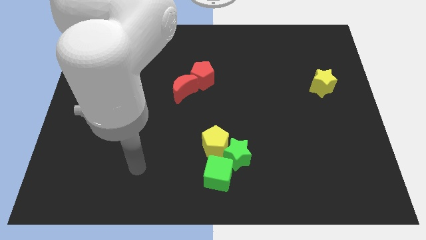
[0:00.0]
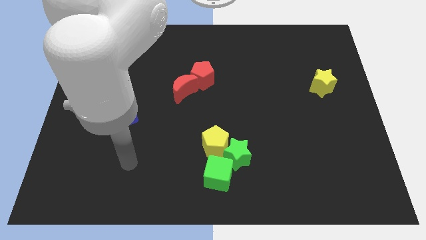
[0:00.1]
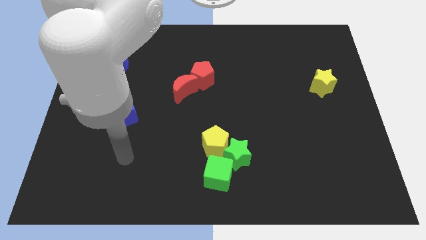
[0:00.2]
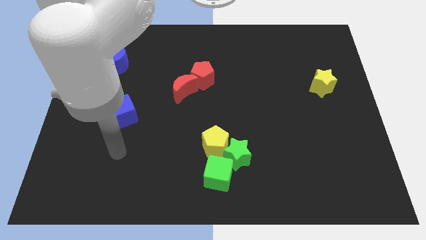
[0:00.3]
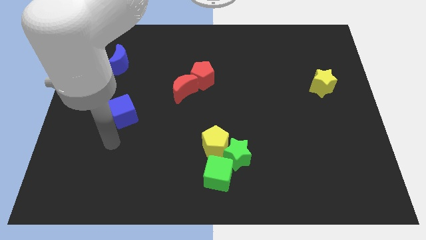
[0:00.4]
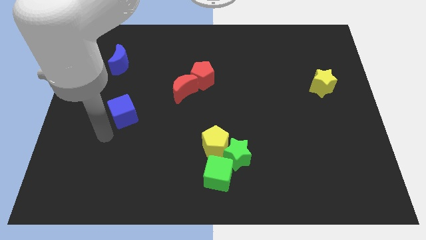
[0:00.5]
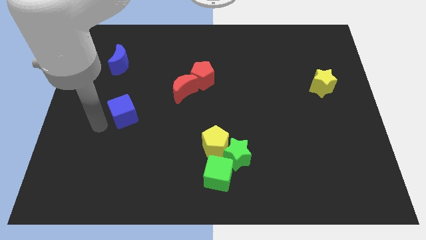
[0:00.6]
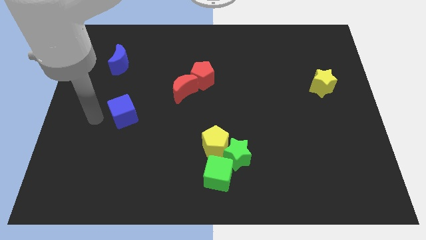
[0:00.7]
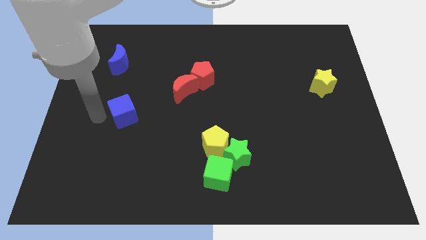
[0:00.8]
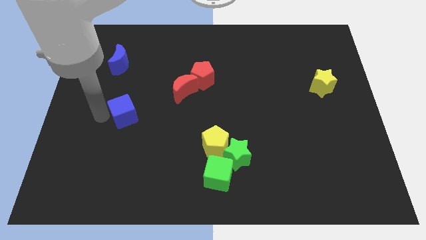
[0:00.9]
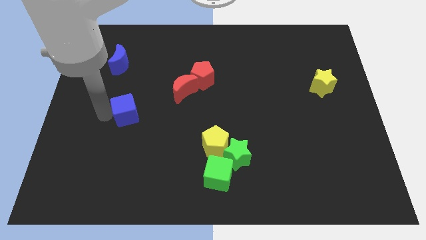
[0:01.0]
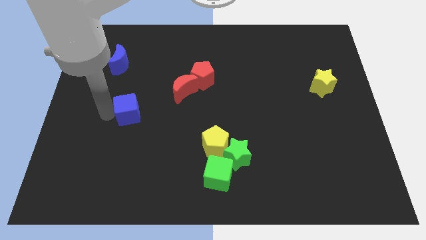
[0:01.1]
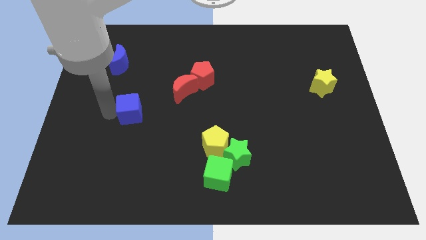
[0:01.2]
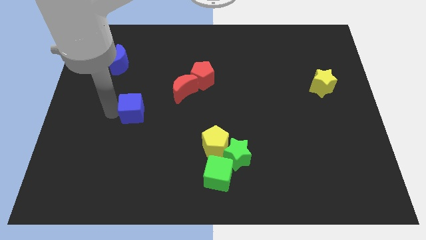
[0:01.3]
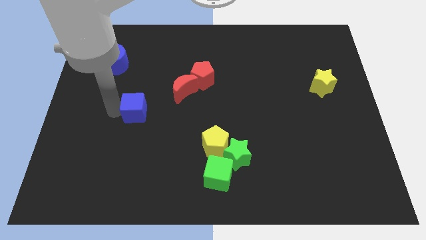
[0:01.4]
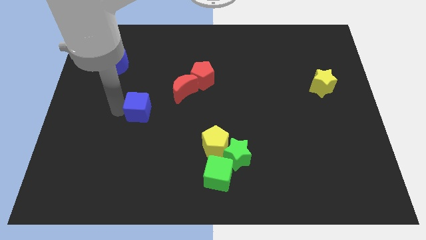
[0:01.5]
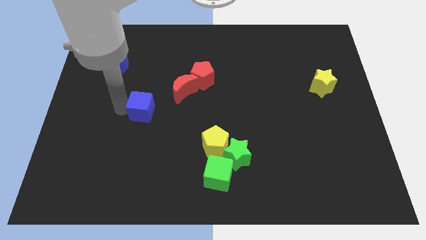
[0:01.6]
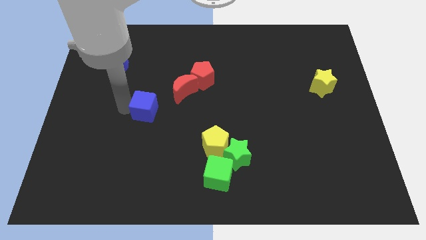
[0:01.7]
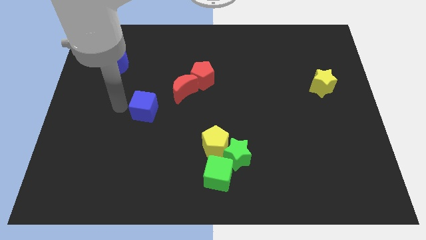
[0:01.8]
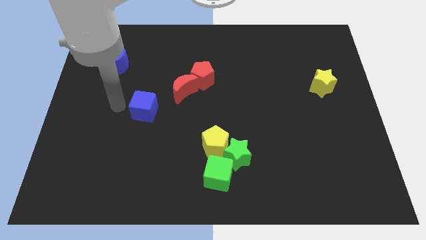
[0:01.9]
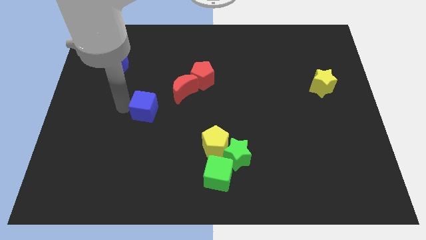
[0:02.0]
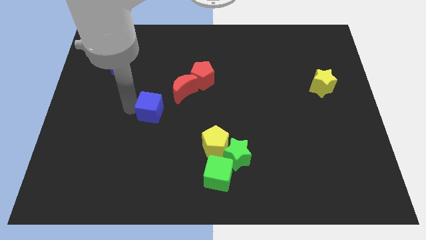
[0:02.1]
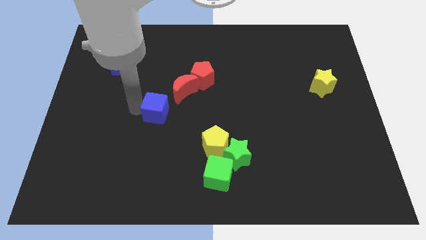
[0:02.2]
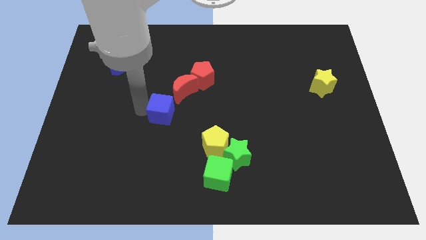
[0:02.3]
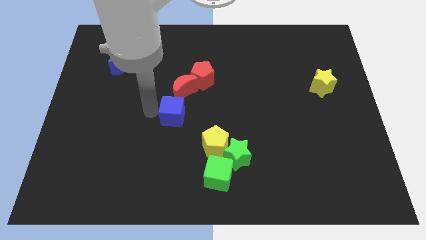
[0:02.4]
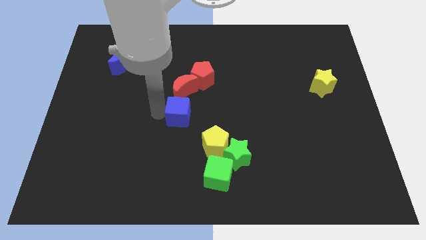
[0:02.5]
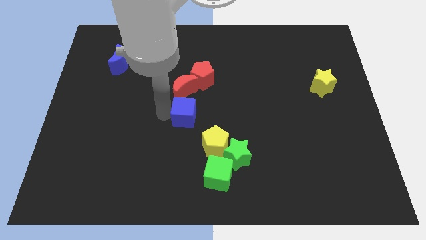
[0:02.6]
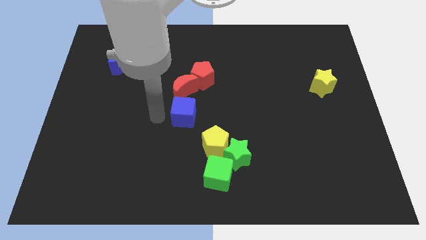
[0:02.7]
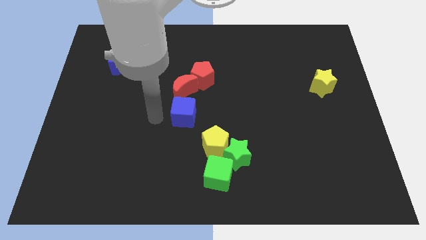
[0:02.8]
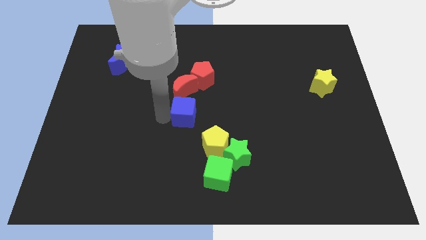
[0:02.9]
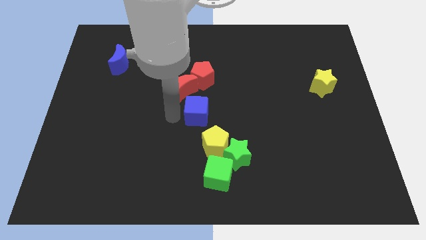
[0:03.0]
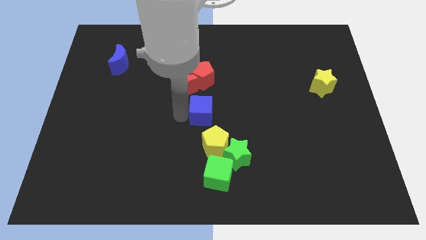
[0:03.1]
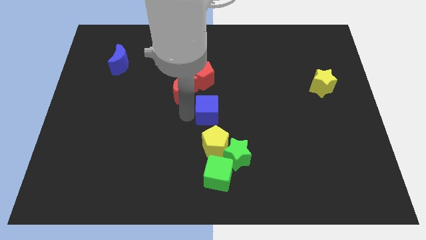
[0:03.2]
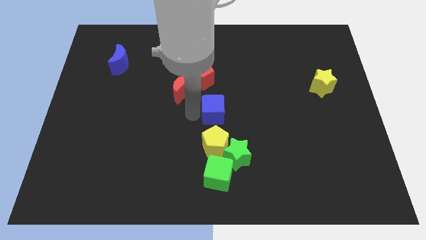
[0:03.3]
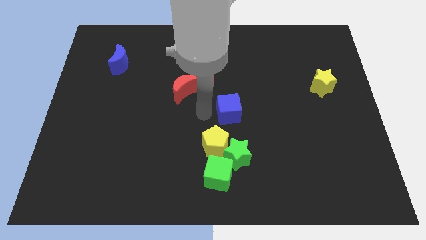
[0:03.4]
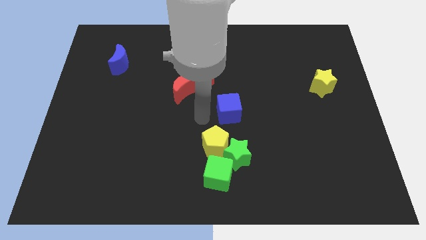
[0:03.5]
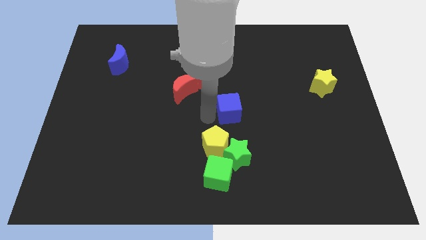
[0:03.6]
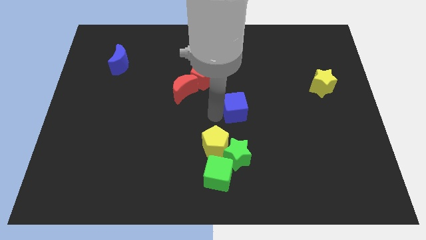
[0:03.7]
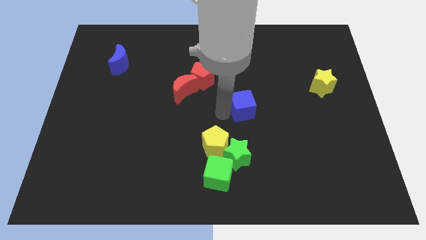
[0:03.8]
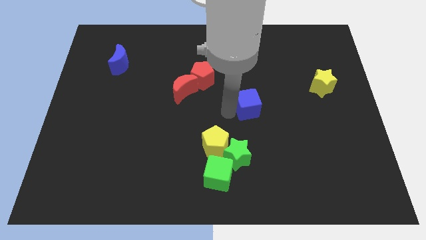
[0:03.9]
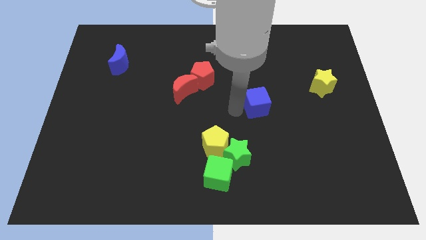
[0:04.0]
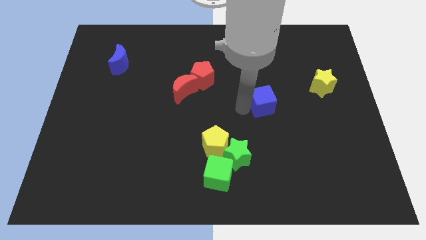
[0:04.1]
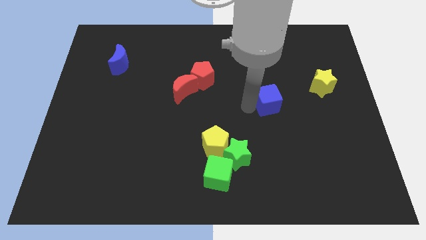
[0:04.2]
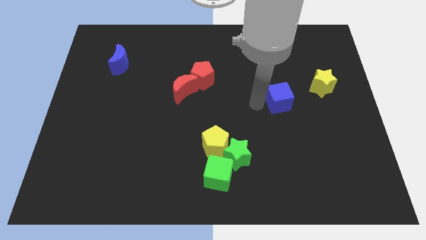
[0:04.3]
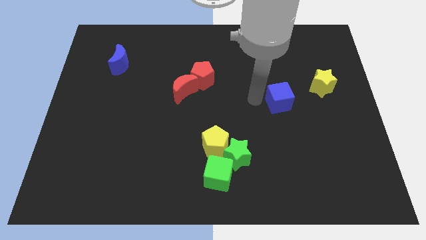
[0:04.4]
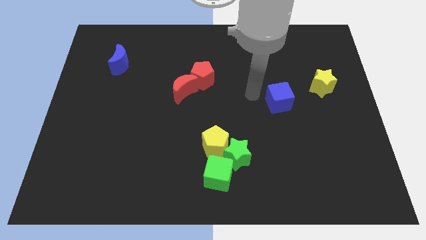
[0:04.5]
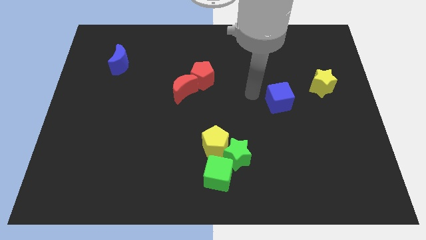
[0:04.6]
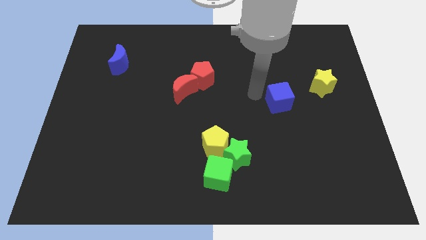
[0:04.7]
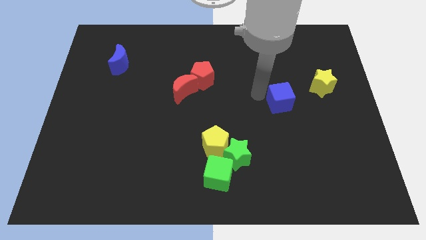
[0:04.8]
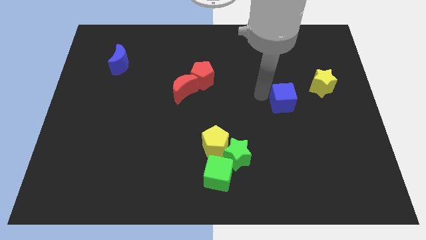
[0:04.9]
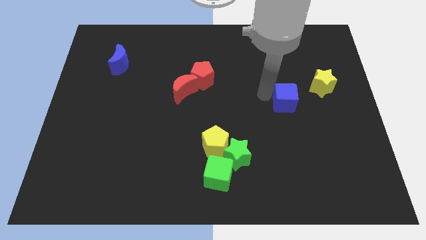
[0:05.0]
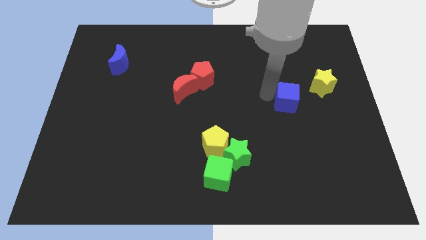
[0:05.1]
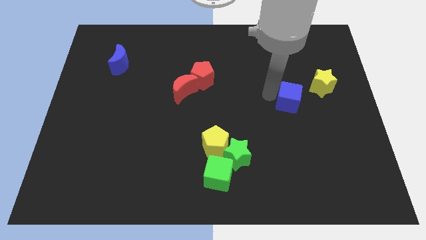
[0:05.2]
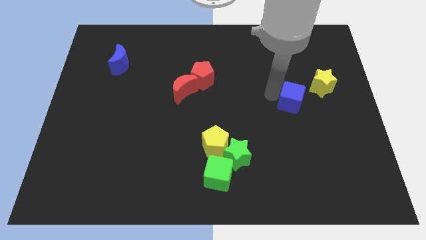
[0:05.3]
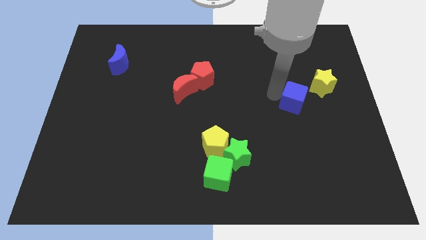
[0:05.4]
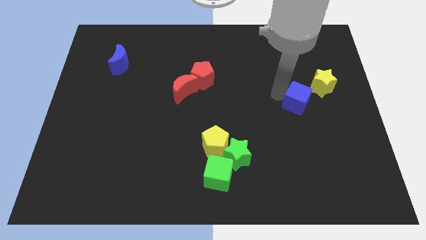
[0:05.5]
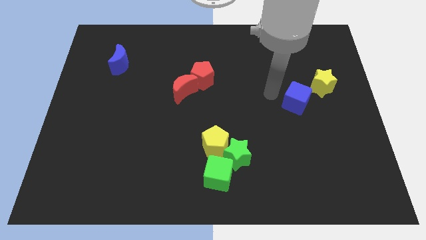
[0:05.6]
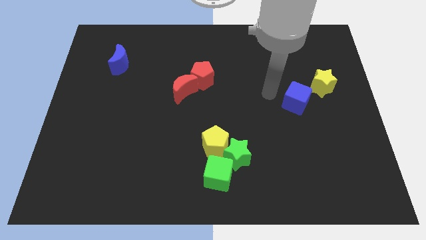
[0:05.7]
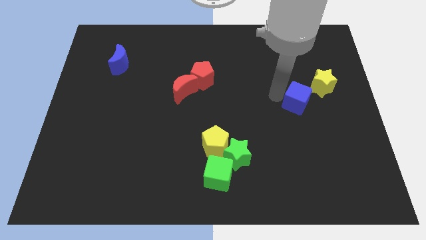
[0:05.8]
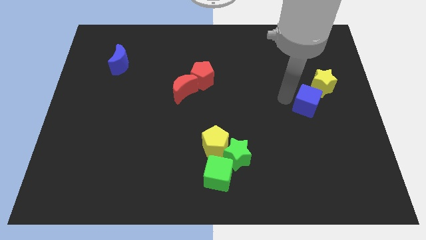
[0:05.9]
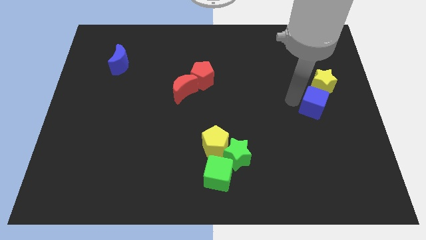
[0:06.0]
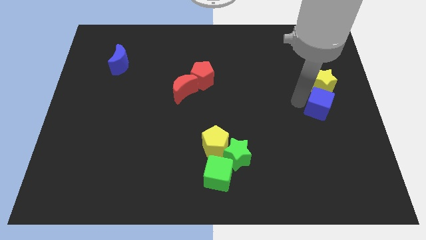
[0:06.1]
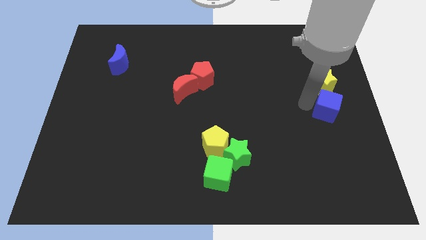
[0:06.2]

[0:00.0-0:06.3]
push the blue cube to the center right

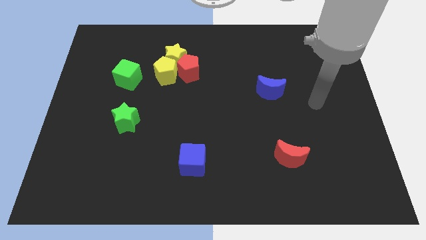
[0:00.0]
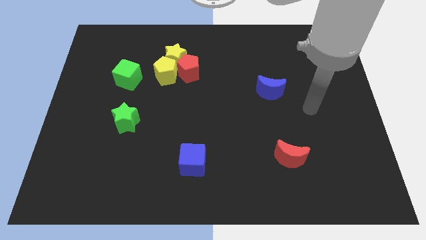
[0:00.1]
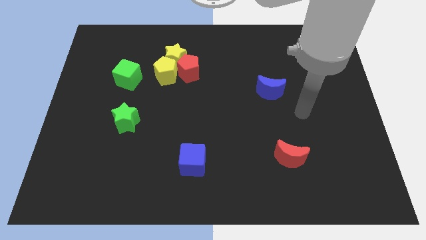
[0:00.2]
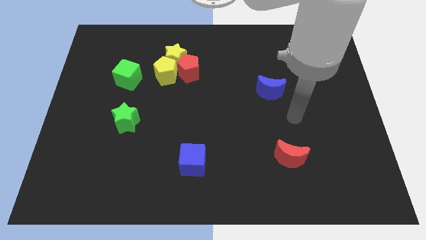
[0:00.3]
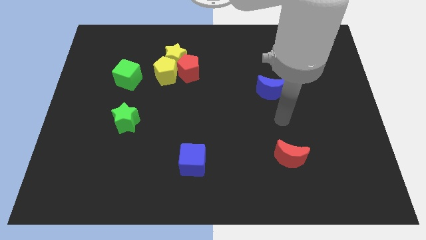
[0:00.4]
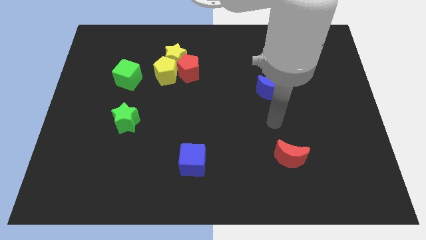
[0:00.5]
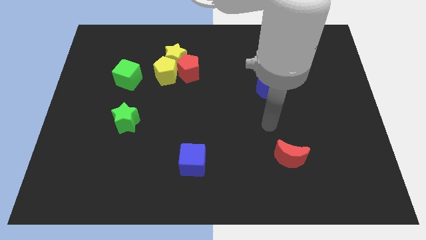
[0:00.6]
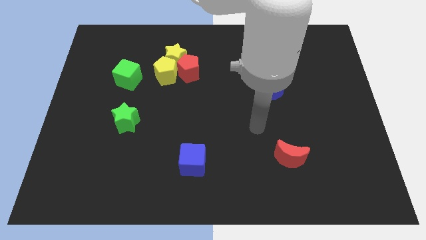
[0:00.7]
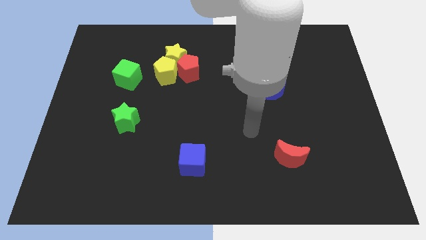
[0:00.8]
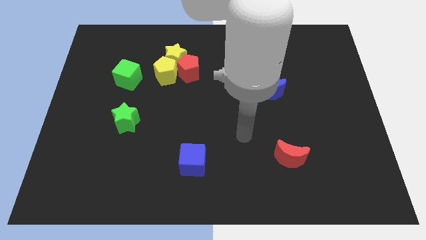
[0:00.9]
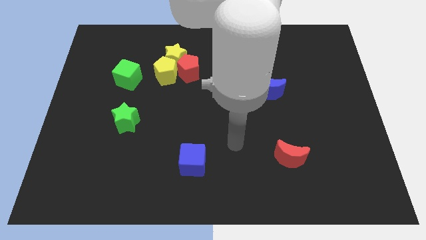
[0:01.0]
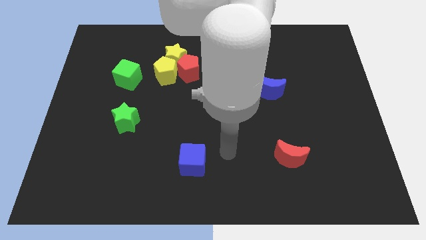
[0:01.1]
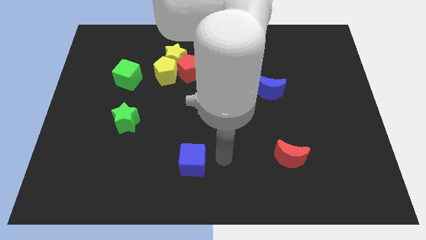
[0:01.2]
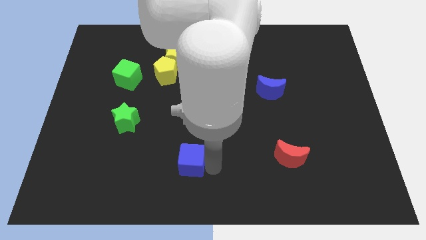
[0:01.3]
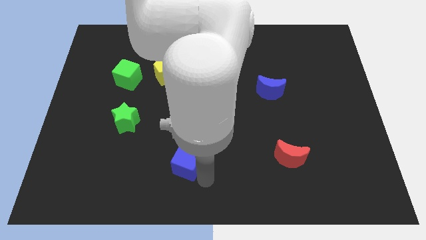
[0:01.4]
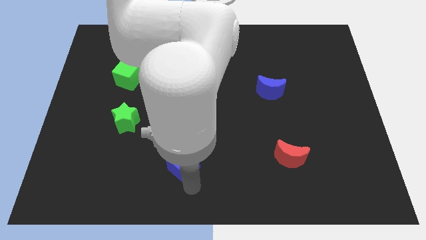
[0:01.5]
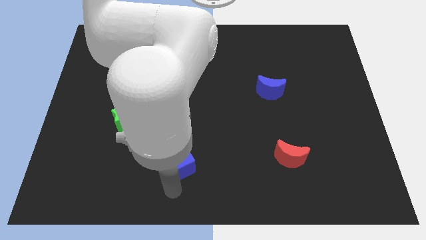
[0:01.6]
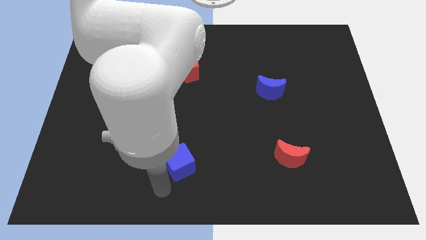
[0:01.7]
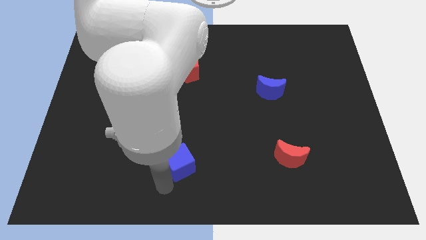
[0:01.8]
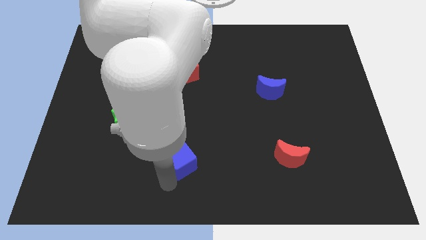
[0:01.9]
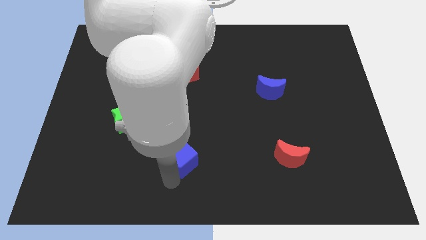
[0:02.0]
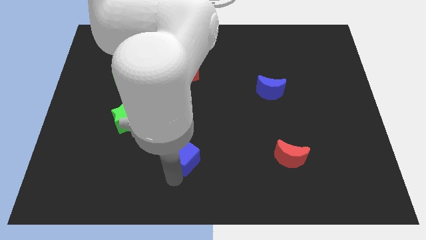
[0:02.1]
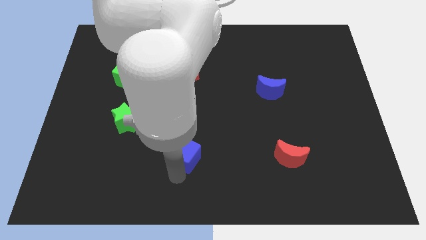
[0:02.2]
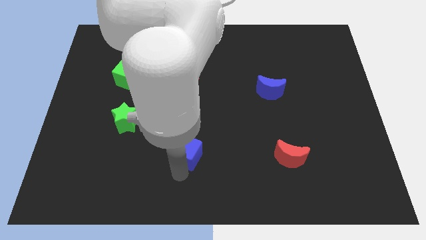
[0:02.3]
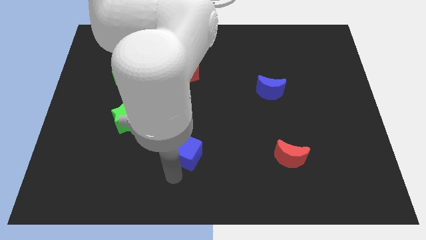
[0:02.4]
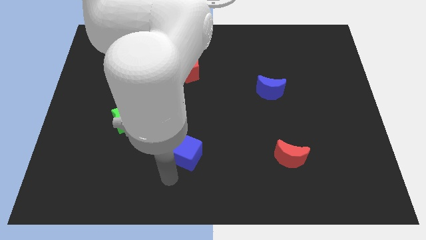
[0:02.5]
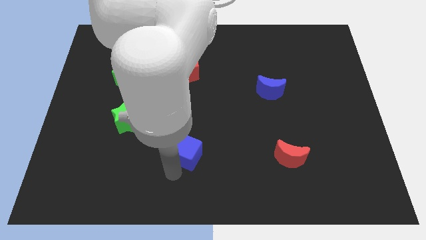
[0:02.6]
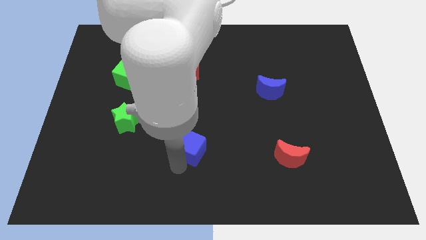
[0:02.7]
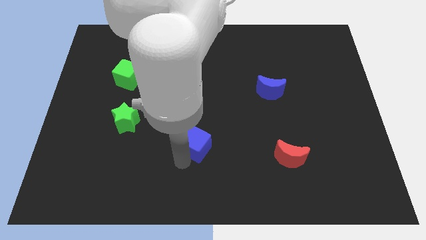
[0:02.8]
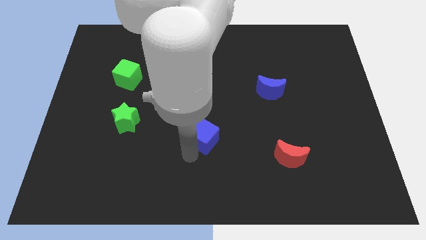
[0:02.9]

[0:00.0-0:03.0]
push the blue cube to the middle of the board
